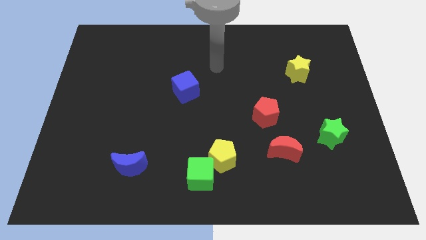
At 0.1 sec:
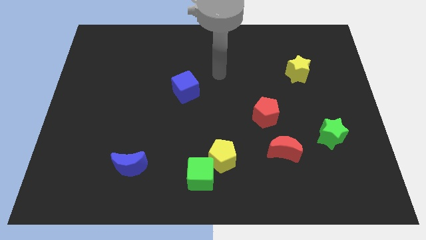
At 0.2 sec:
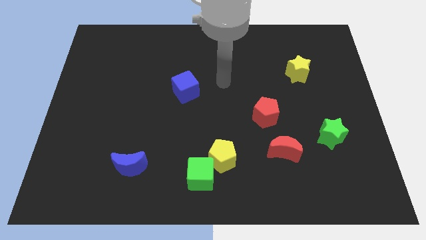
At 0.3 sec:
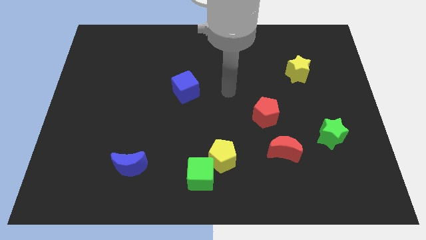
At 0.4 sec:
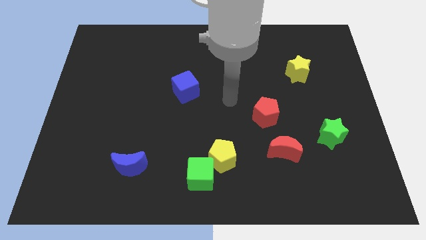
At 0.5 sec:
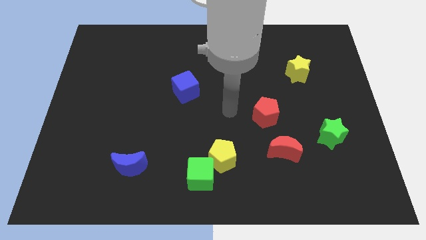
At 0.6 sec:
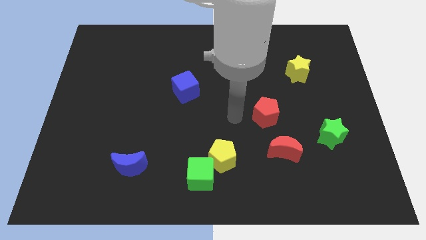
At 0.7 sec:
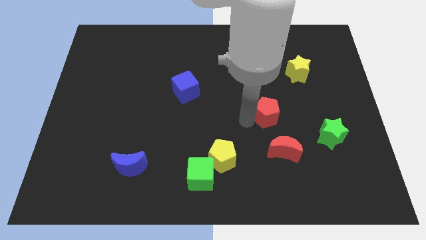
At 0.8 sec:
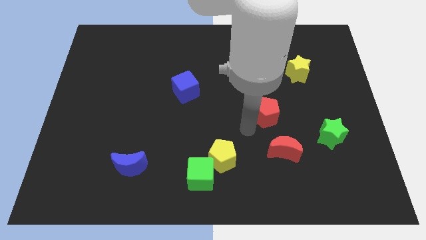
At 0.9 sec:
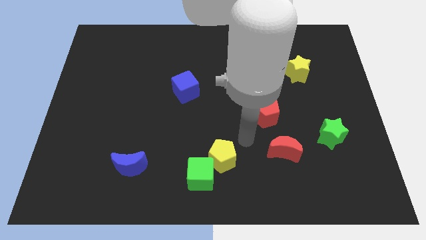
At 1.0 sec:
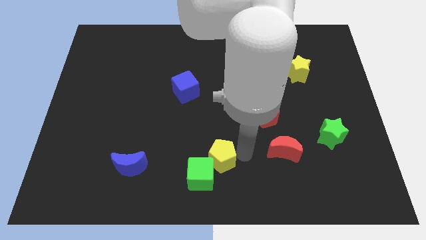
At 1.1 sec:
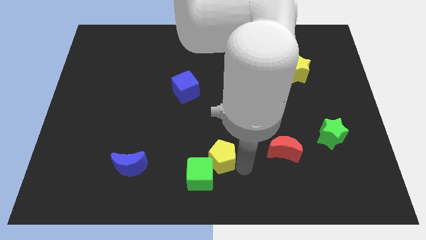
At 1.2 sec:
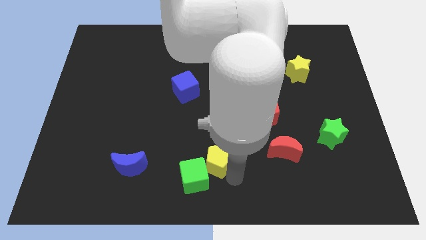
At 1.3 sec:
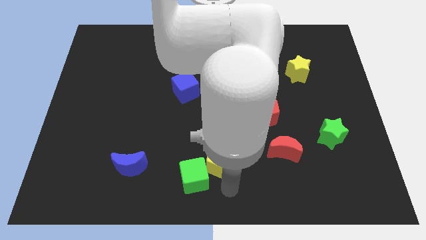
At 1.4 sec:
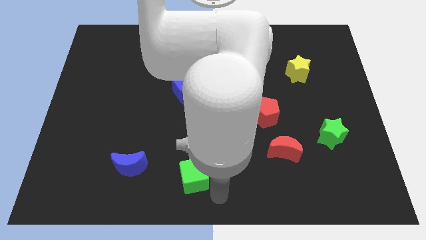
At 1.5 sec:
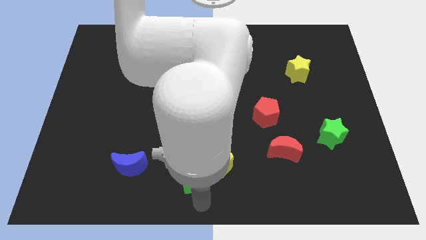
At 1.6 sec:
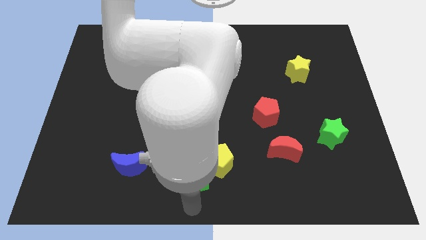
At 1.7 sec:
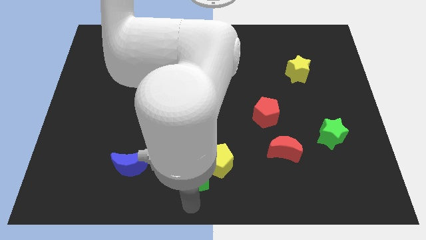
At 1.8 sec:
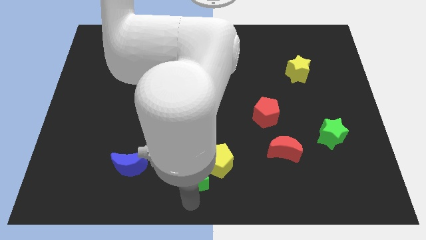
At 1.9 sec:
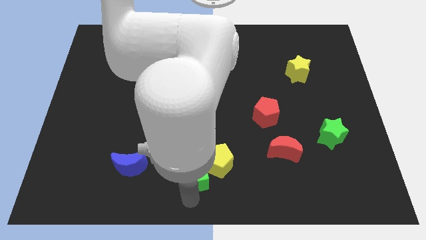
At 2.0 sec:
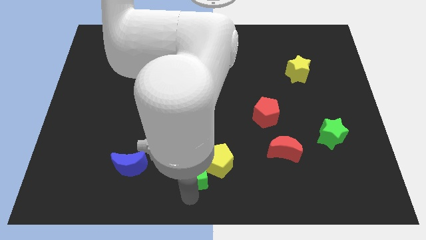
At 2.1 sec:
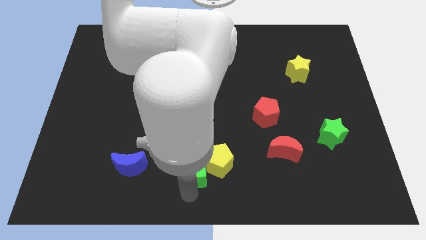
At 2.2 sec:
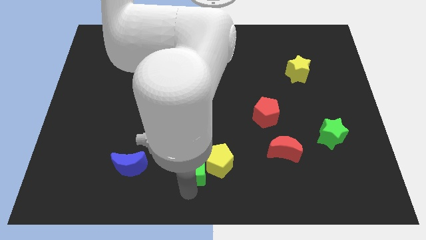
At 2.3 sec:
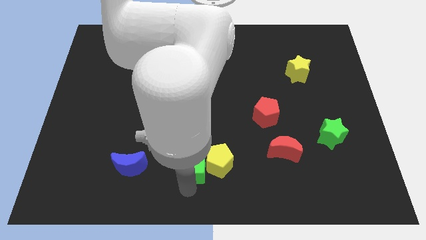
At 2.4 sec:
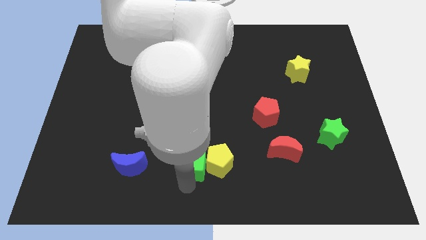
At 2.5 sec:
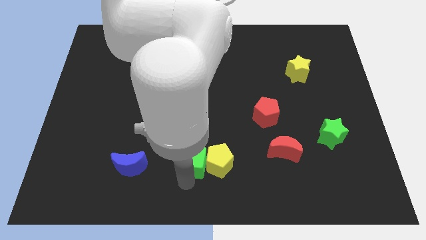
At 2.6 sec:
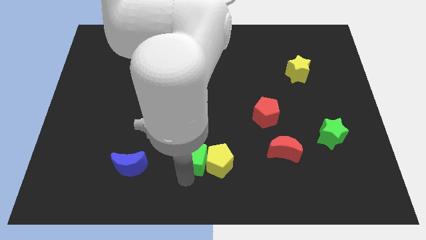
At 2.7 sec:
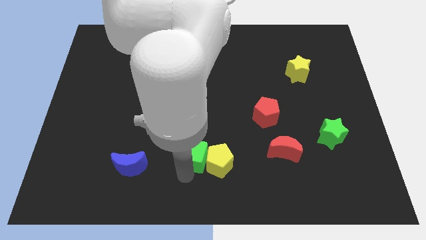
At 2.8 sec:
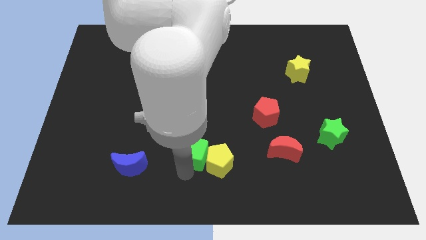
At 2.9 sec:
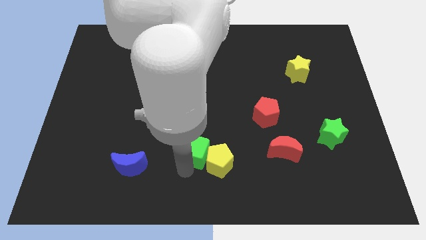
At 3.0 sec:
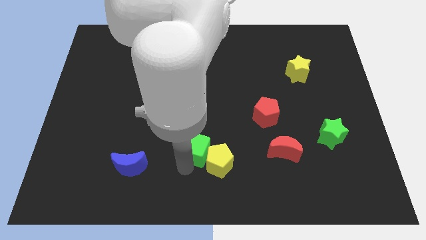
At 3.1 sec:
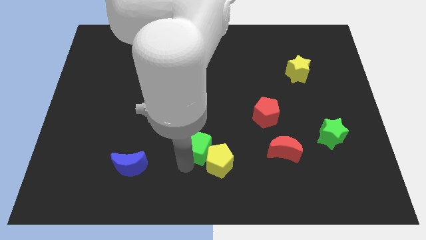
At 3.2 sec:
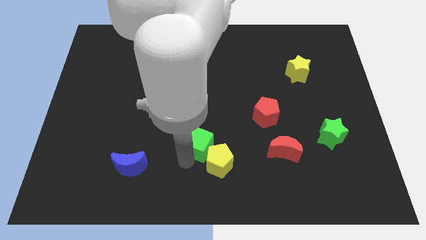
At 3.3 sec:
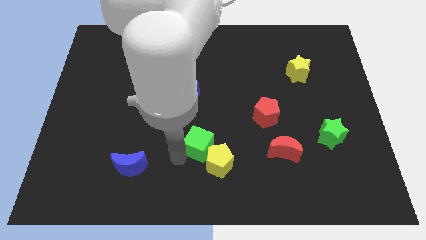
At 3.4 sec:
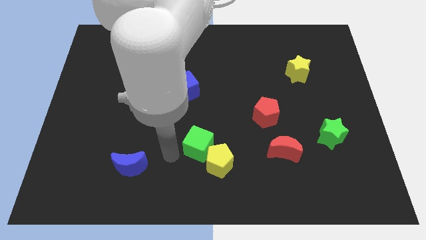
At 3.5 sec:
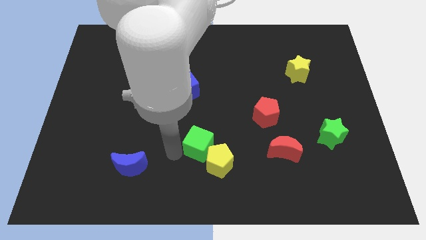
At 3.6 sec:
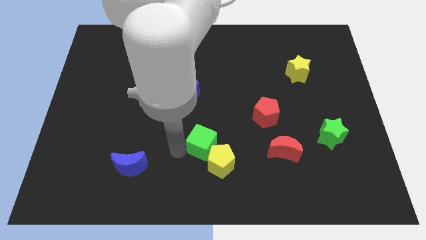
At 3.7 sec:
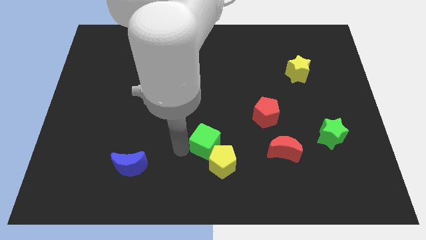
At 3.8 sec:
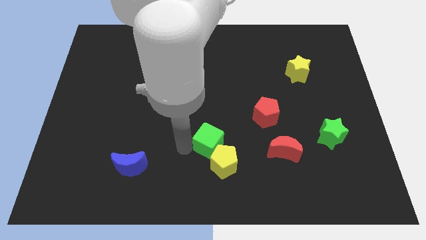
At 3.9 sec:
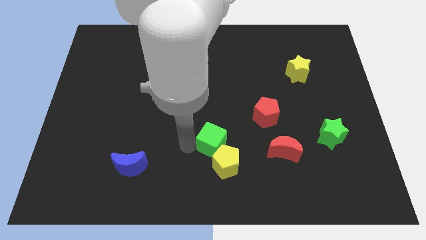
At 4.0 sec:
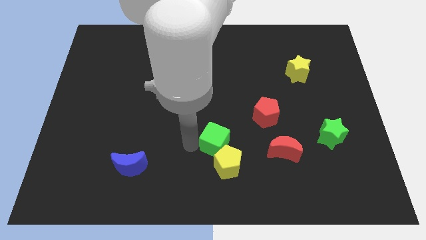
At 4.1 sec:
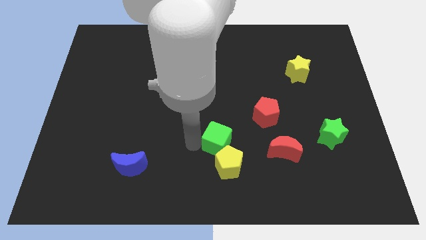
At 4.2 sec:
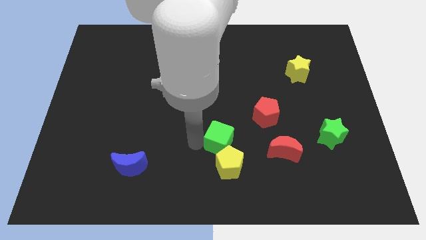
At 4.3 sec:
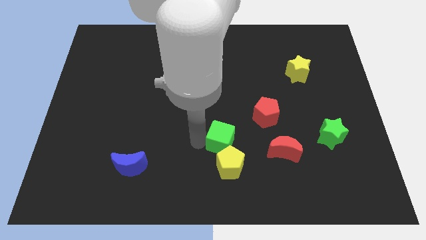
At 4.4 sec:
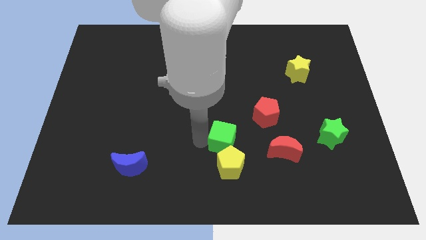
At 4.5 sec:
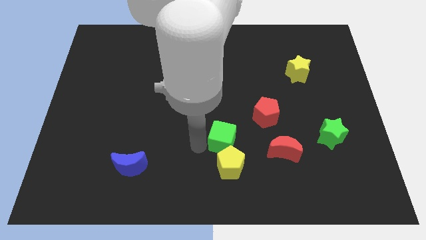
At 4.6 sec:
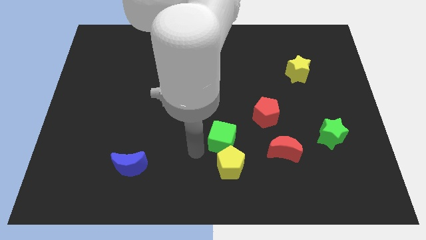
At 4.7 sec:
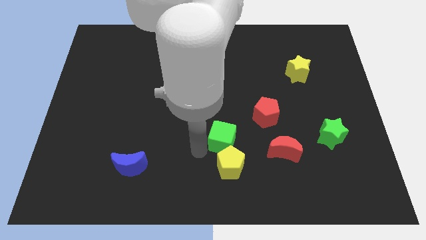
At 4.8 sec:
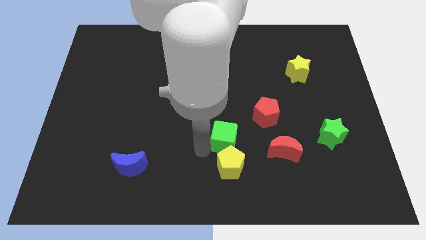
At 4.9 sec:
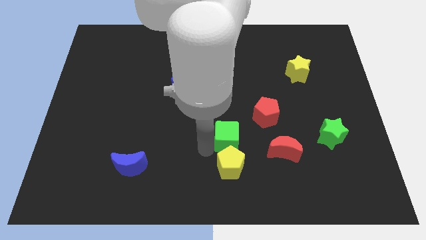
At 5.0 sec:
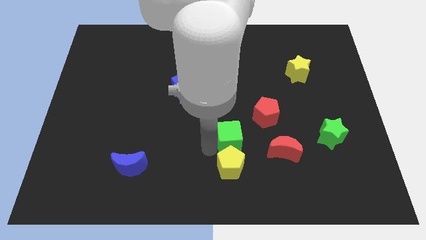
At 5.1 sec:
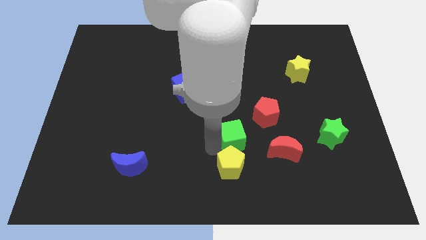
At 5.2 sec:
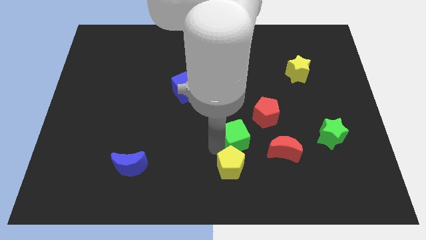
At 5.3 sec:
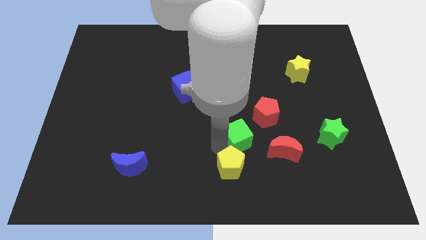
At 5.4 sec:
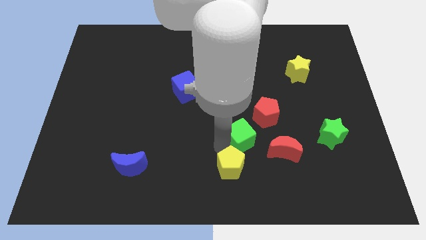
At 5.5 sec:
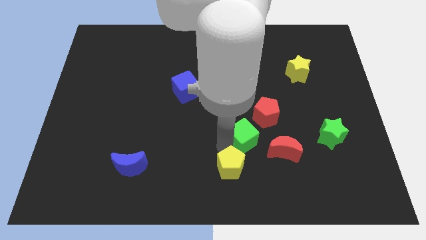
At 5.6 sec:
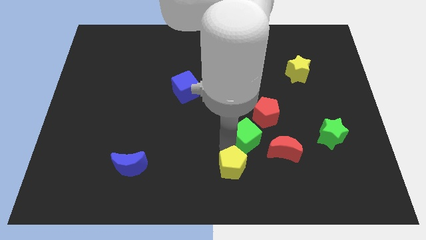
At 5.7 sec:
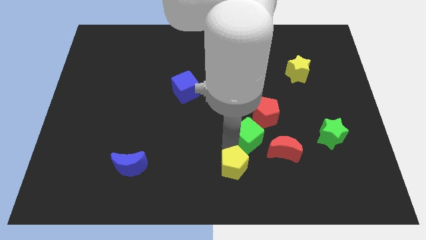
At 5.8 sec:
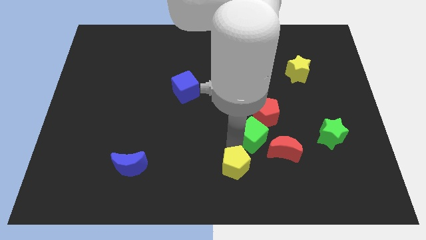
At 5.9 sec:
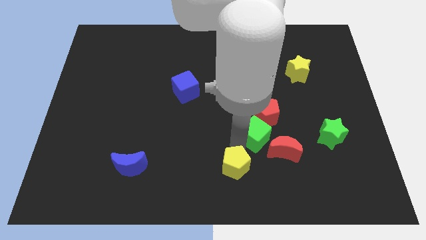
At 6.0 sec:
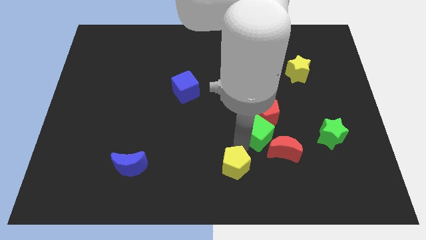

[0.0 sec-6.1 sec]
put the green cube close to the red pentagon
